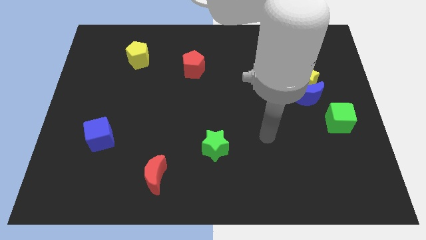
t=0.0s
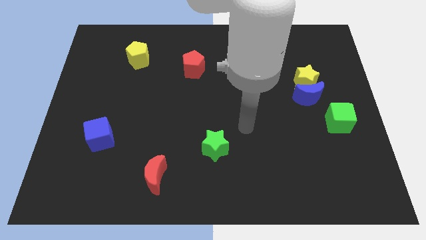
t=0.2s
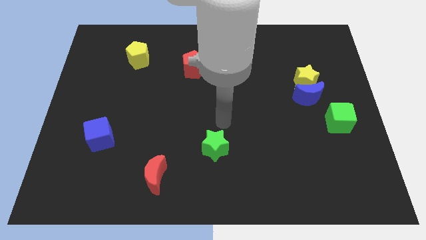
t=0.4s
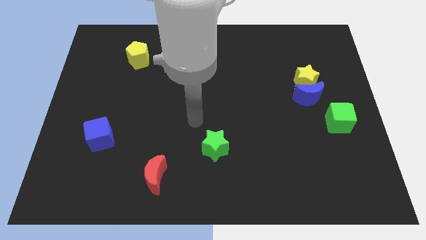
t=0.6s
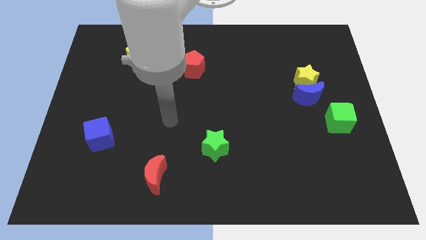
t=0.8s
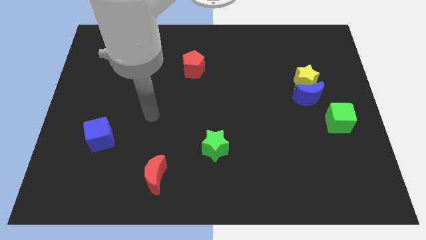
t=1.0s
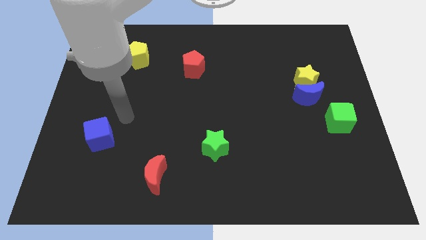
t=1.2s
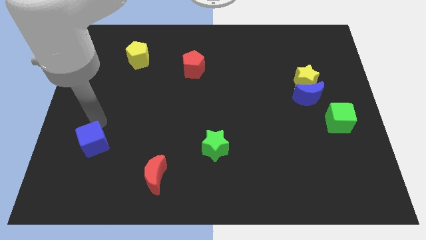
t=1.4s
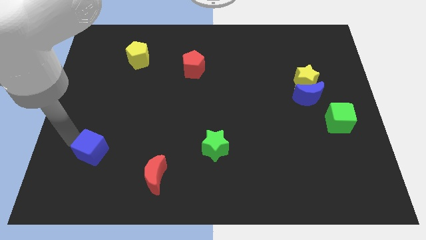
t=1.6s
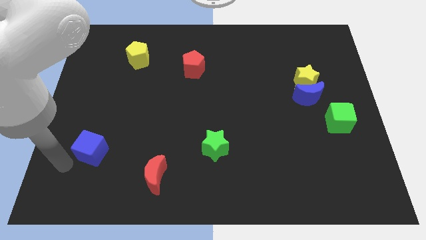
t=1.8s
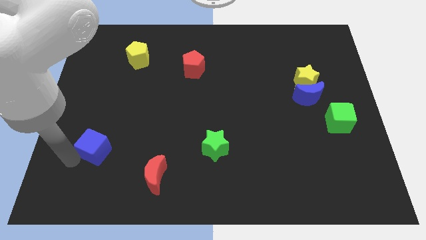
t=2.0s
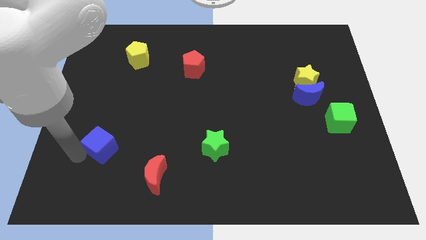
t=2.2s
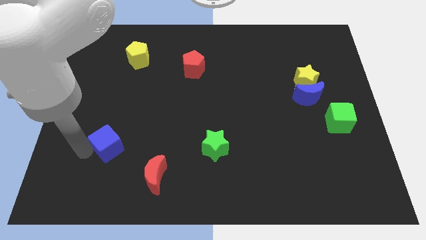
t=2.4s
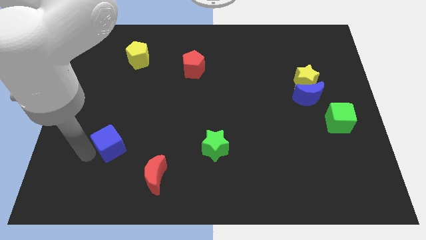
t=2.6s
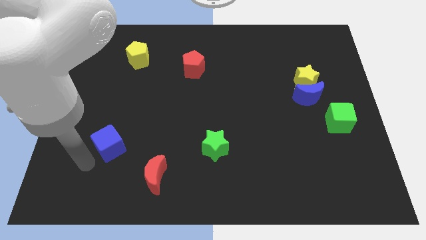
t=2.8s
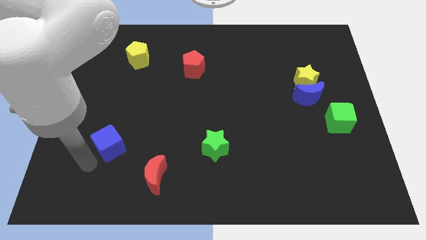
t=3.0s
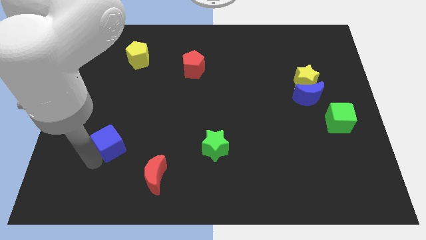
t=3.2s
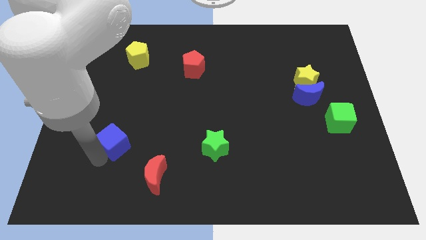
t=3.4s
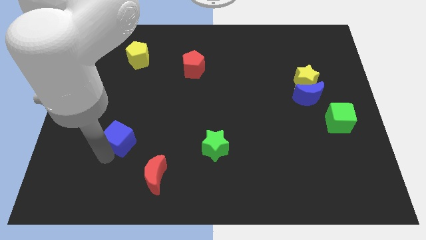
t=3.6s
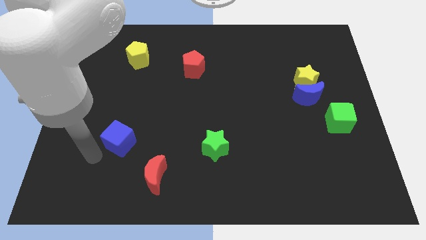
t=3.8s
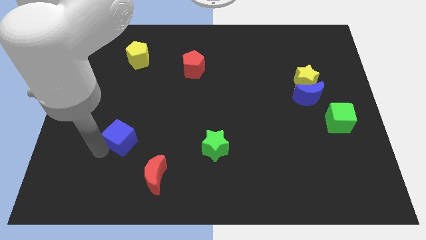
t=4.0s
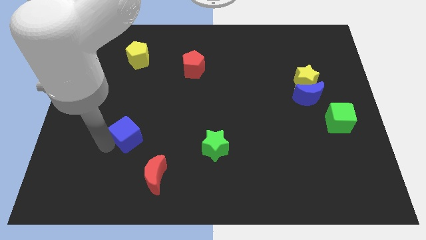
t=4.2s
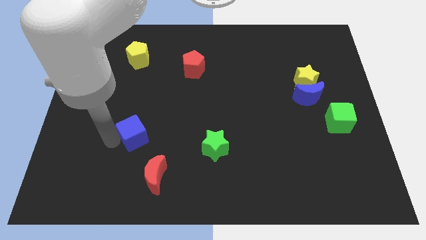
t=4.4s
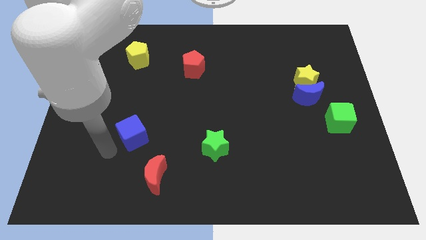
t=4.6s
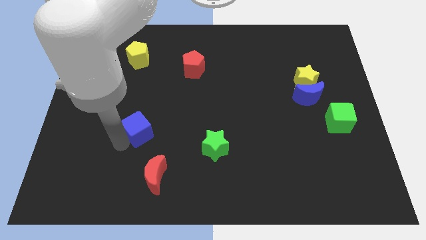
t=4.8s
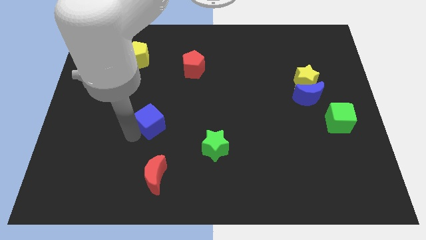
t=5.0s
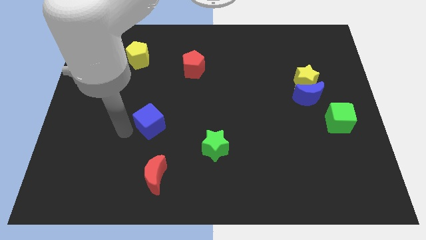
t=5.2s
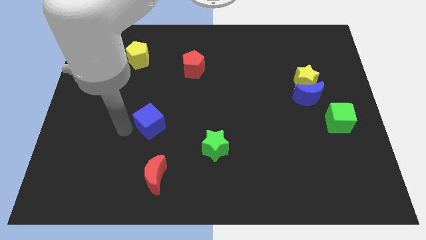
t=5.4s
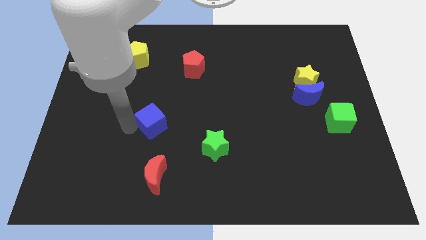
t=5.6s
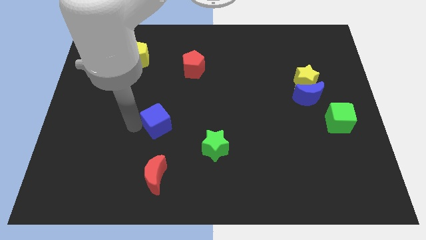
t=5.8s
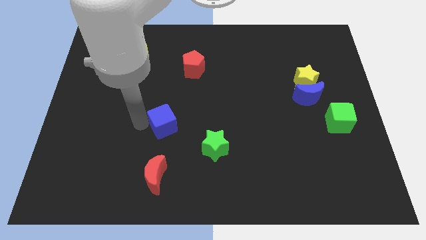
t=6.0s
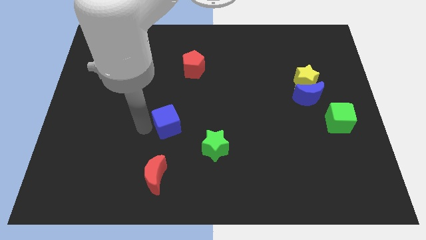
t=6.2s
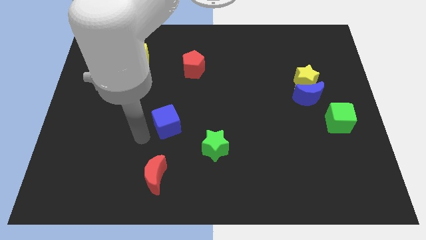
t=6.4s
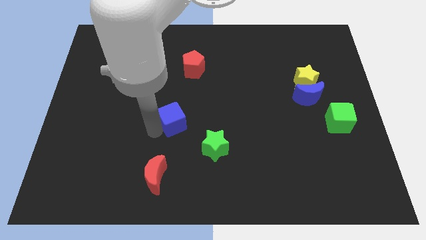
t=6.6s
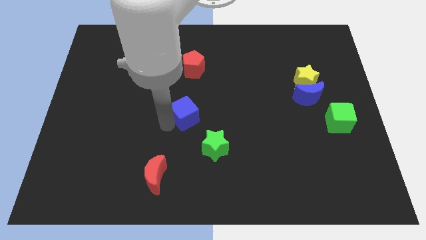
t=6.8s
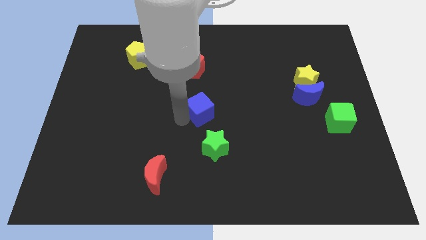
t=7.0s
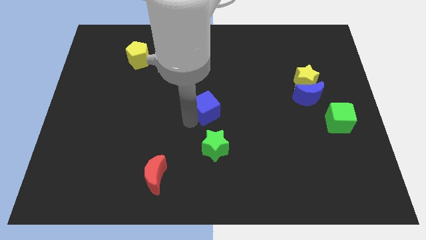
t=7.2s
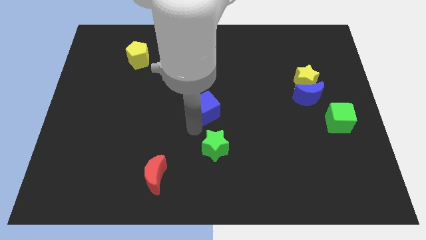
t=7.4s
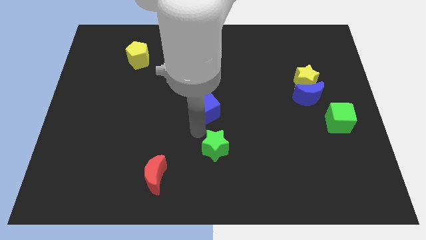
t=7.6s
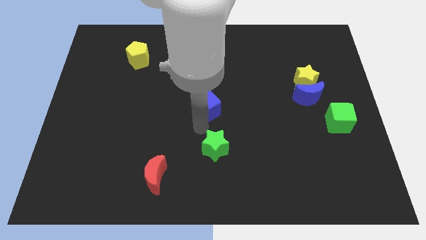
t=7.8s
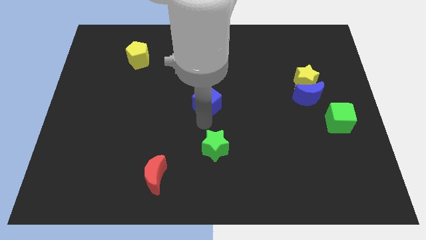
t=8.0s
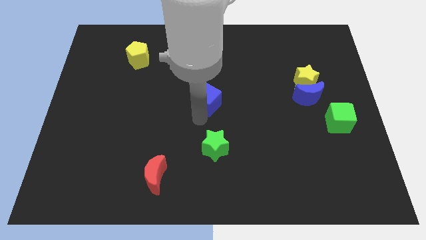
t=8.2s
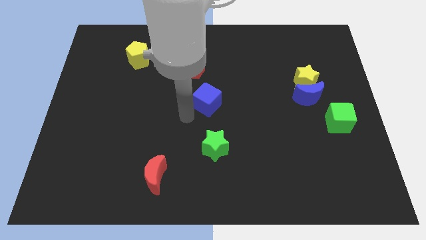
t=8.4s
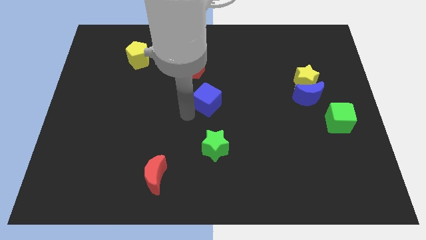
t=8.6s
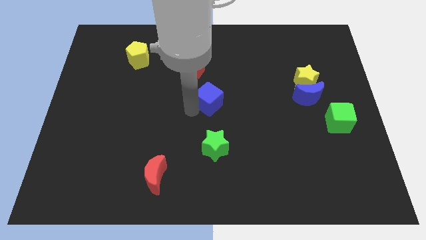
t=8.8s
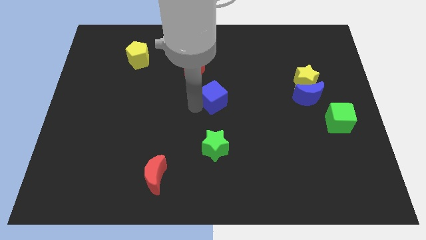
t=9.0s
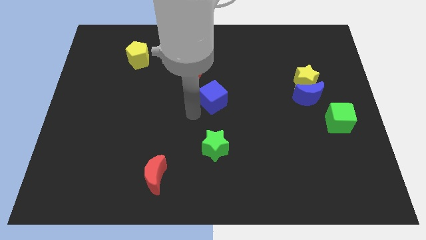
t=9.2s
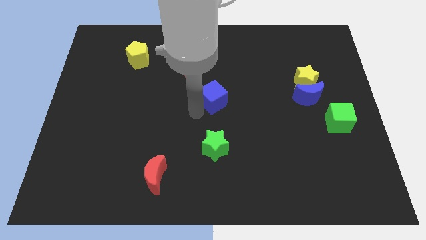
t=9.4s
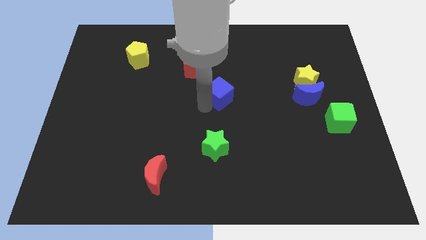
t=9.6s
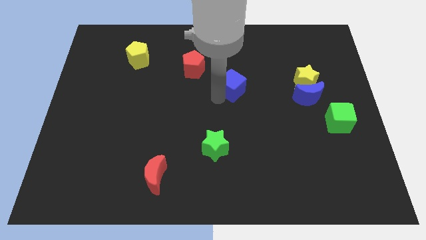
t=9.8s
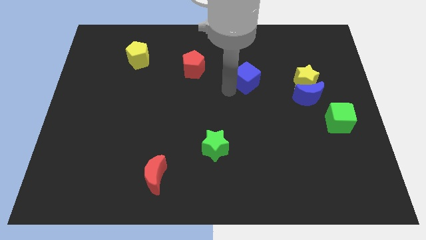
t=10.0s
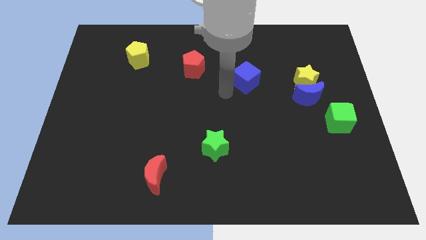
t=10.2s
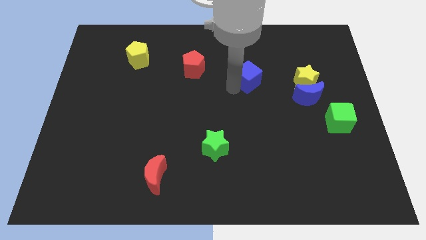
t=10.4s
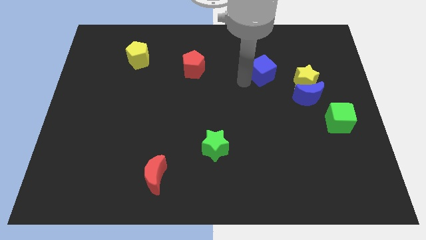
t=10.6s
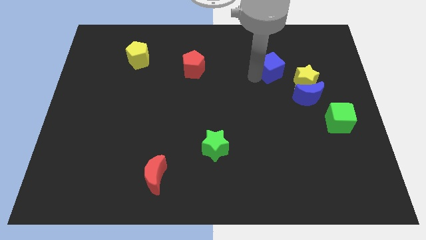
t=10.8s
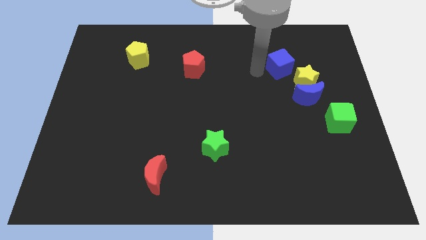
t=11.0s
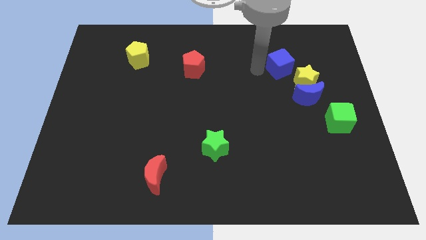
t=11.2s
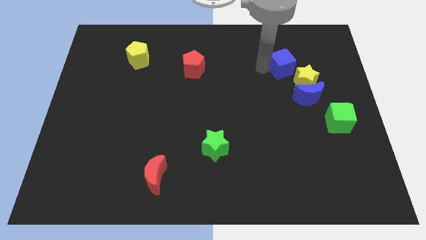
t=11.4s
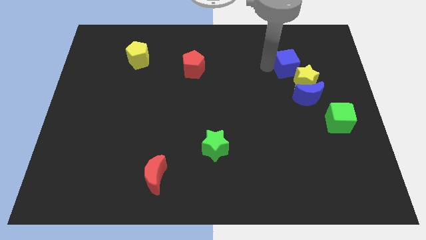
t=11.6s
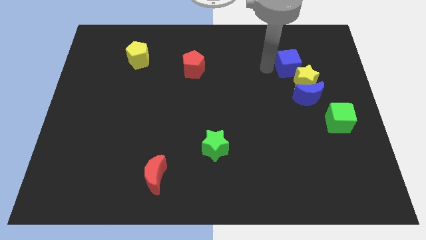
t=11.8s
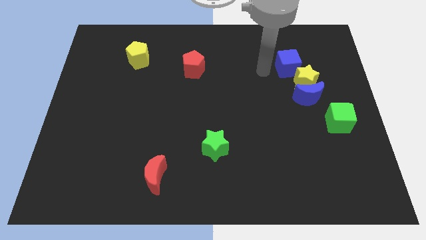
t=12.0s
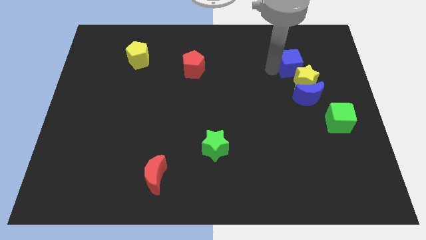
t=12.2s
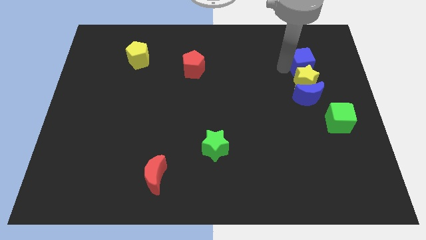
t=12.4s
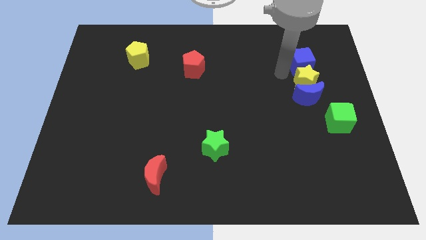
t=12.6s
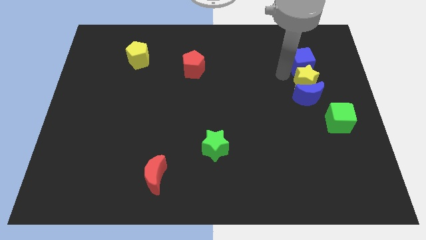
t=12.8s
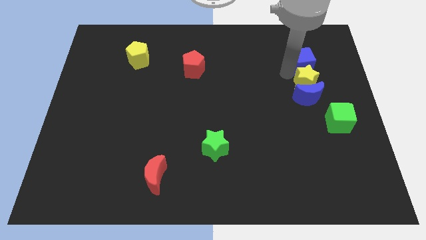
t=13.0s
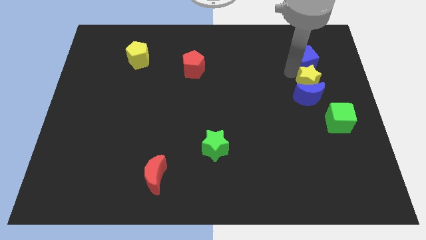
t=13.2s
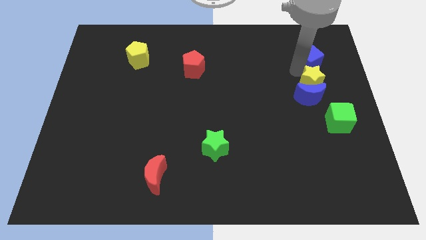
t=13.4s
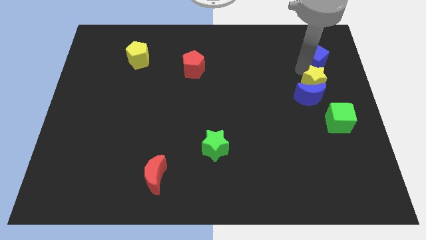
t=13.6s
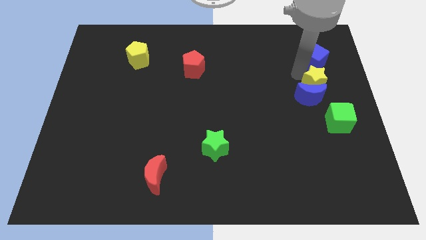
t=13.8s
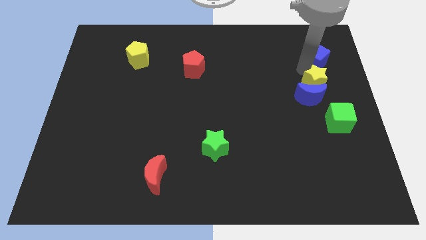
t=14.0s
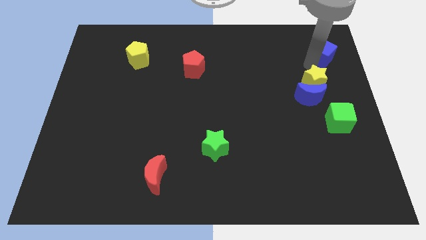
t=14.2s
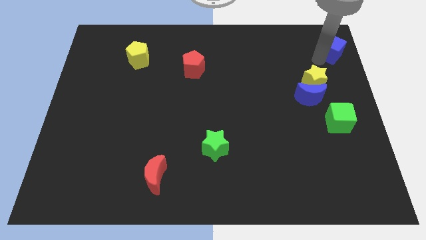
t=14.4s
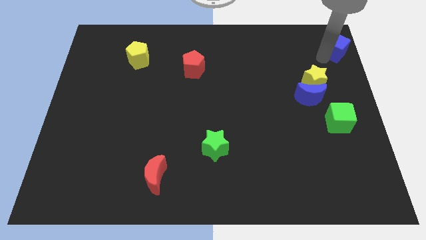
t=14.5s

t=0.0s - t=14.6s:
push the blue cube to the upper right corner
